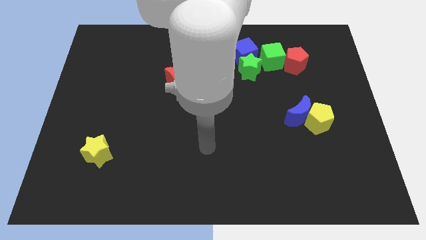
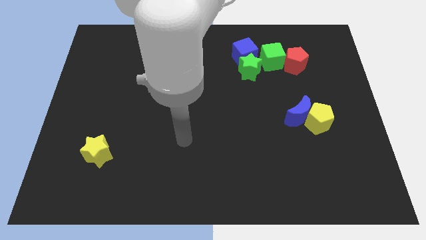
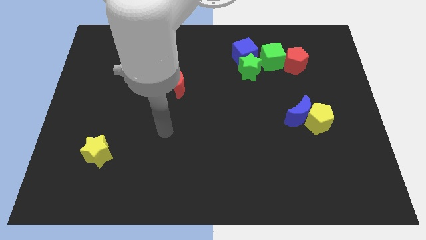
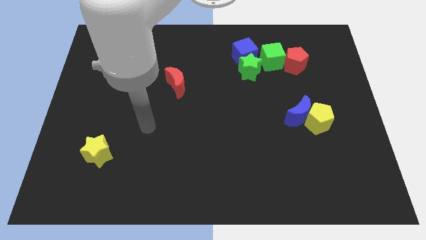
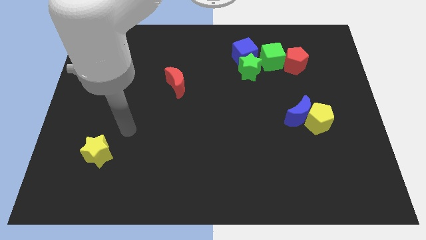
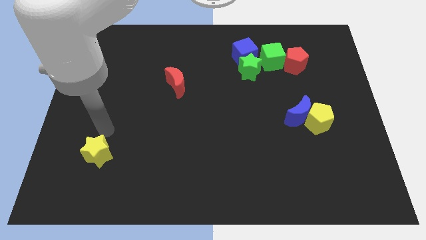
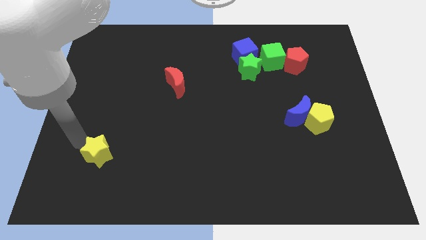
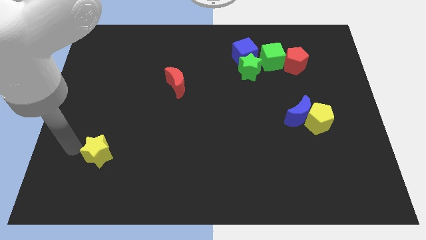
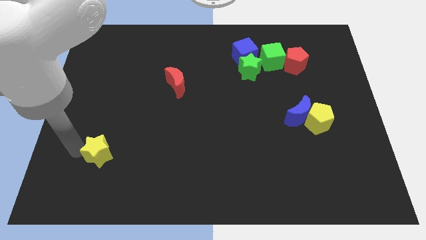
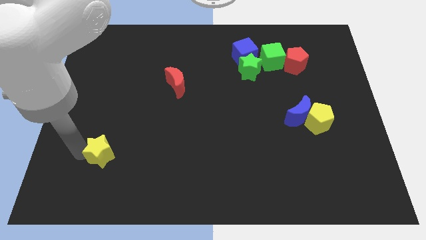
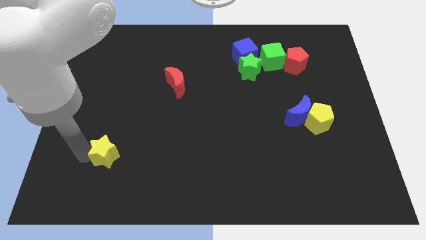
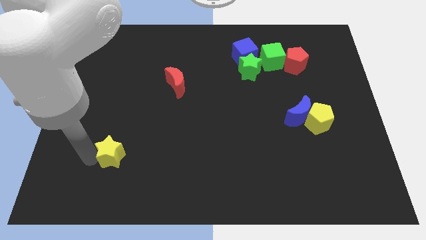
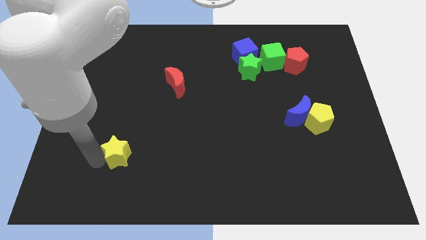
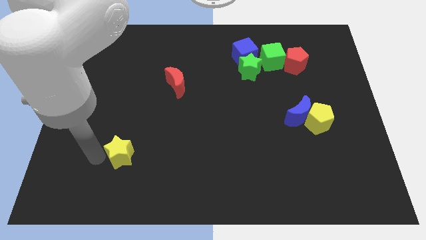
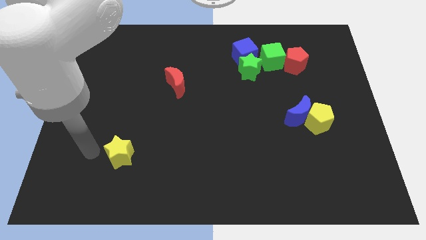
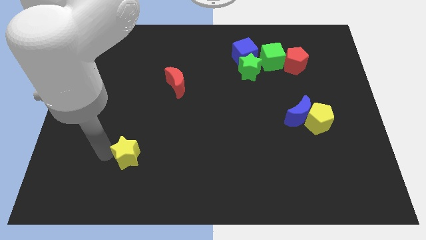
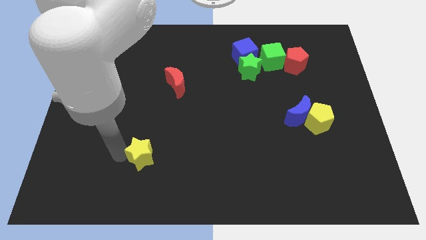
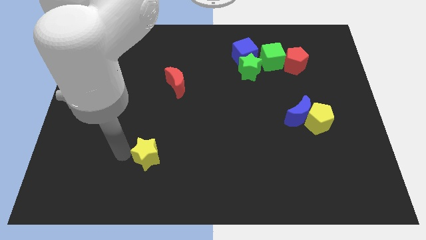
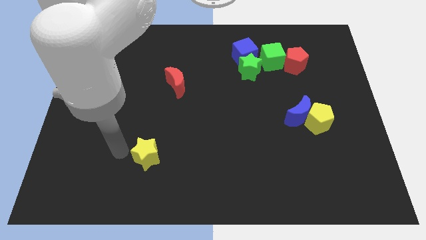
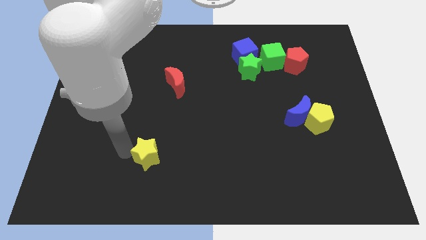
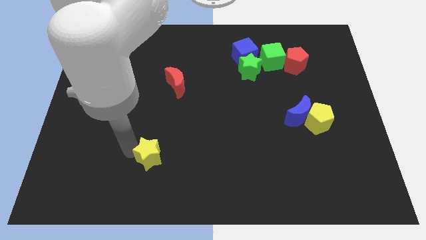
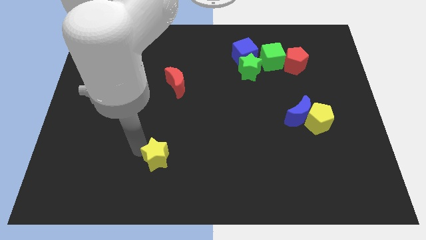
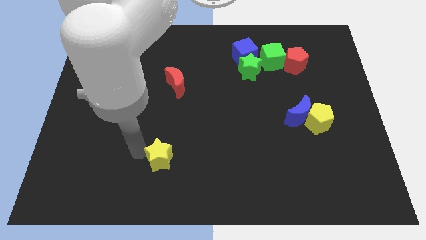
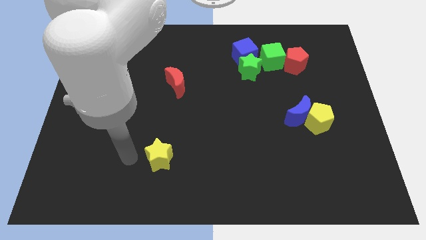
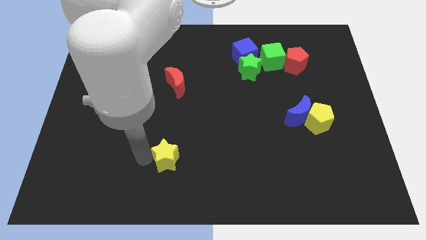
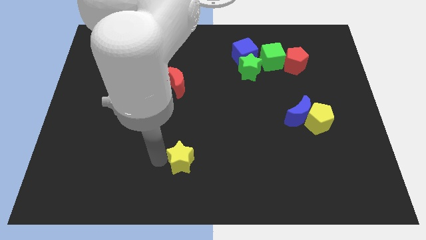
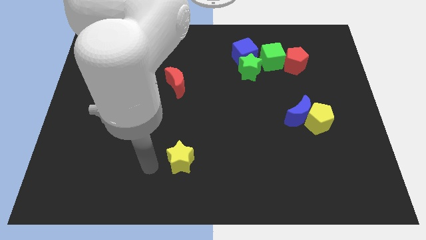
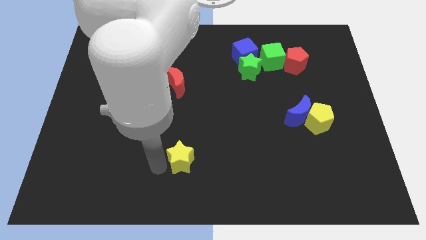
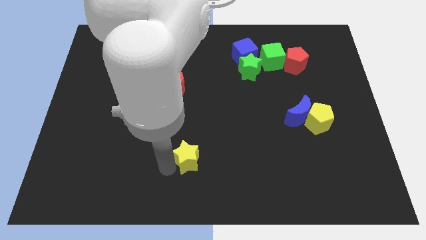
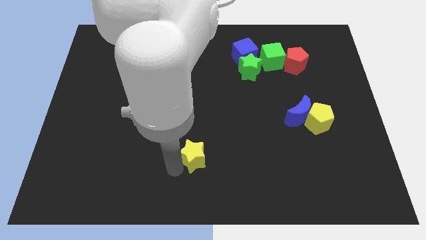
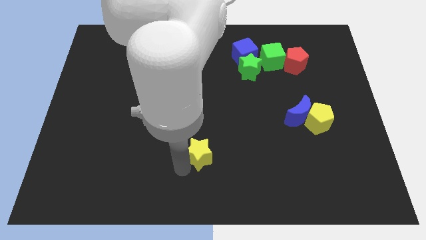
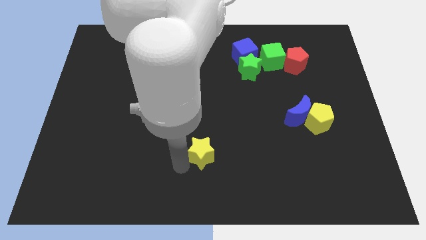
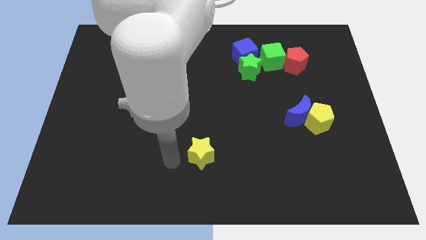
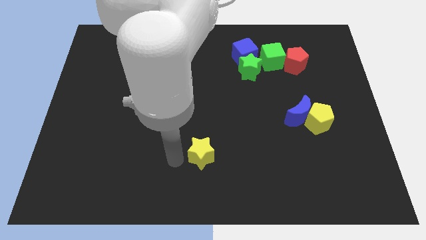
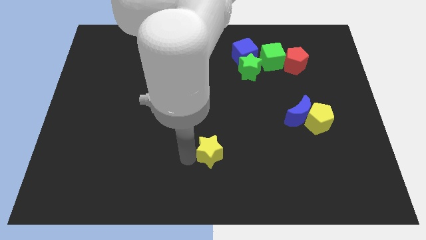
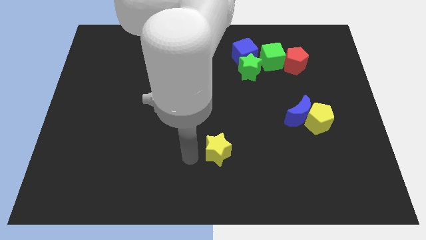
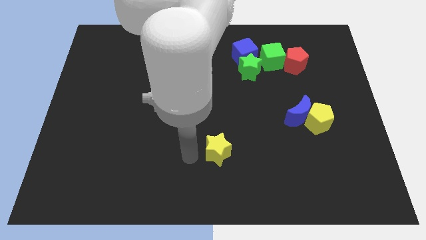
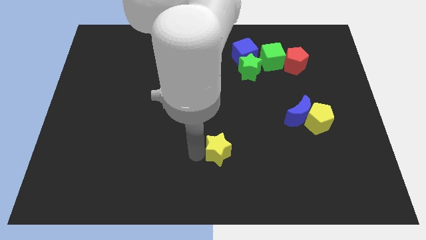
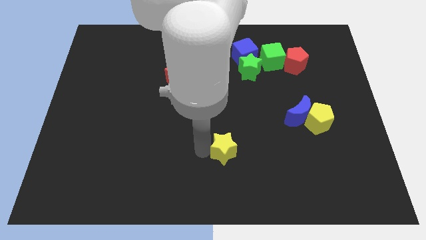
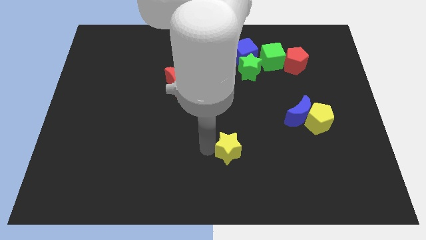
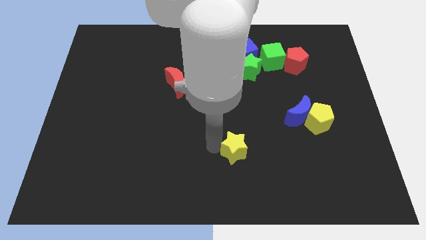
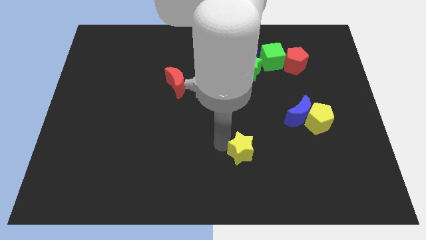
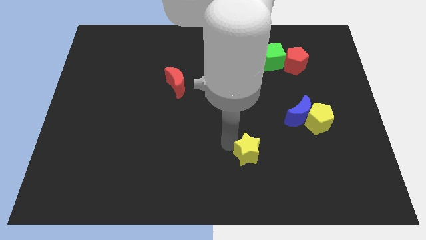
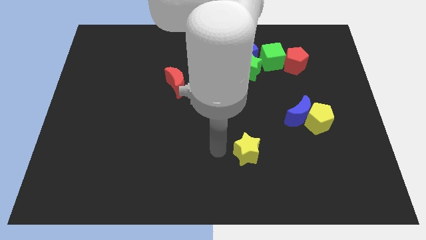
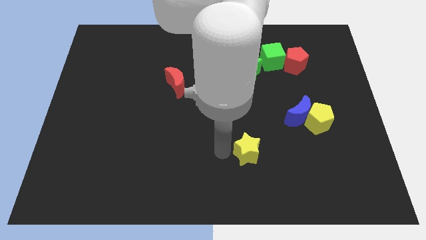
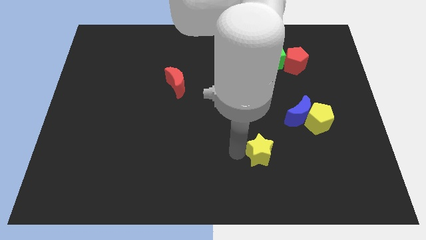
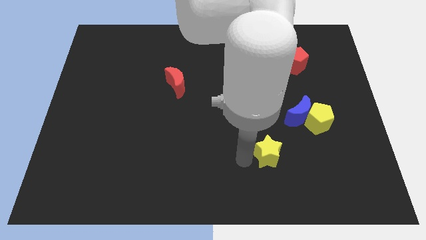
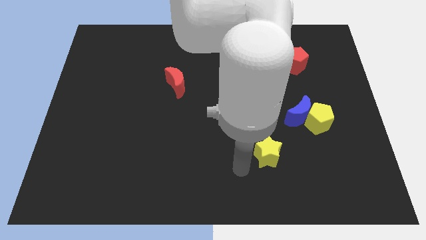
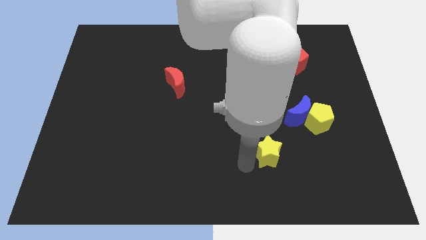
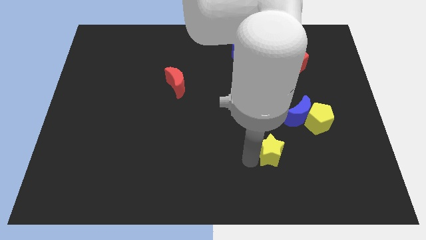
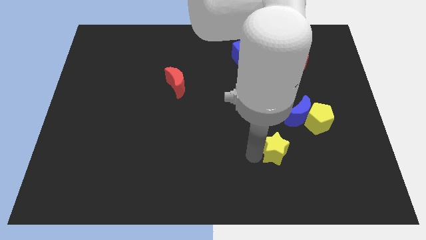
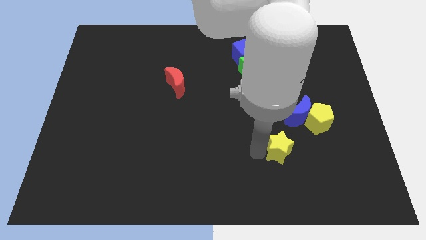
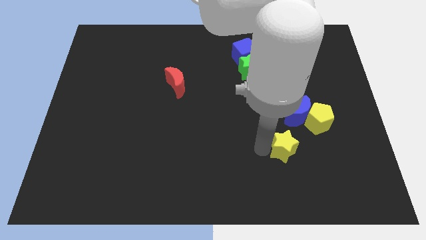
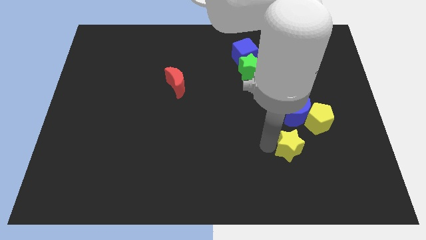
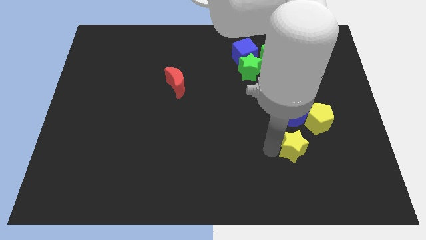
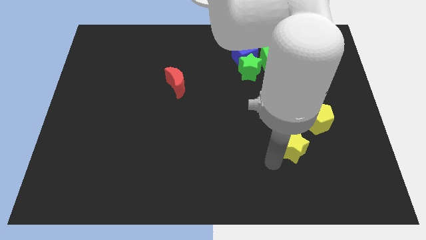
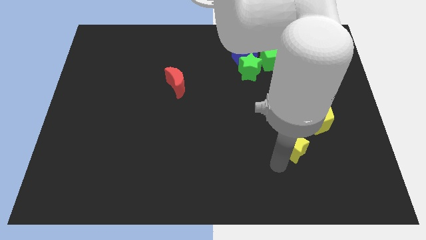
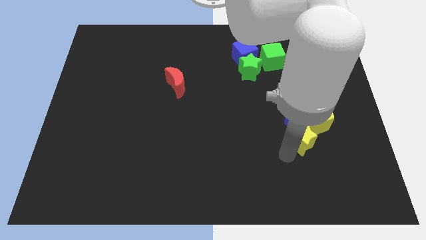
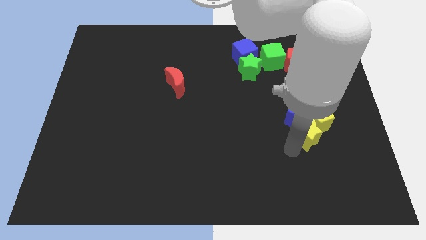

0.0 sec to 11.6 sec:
slide the yellow star next to the yellow pentagon

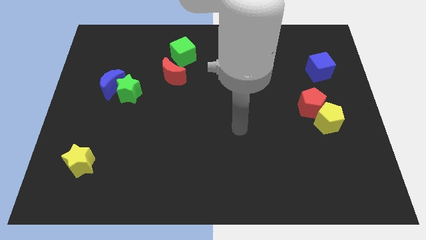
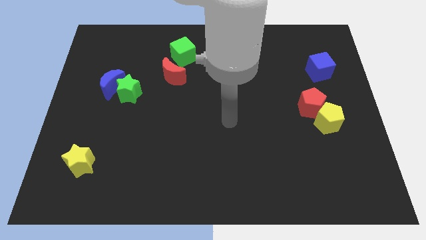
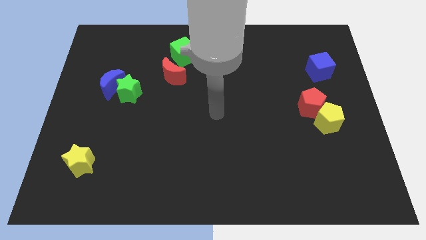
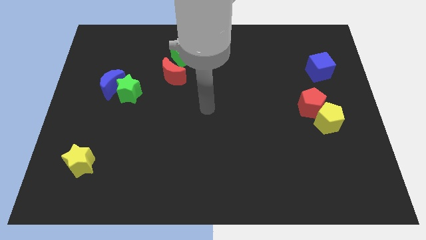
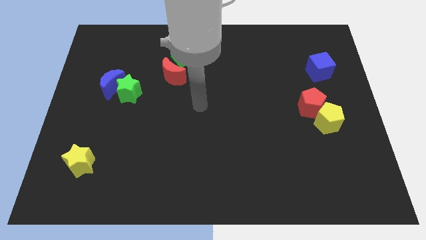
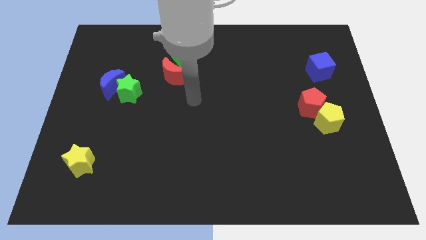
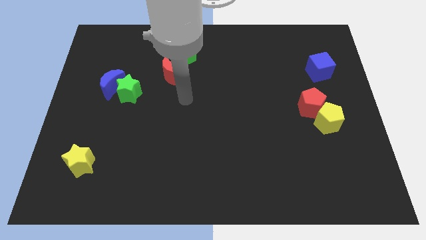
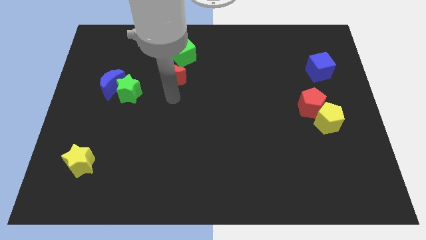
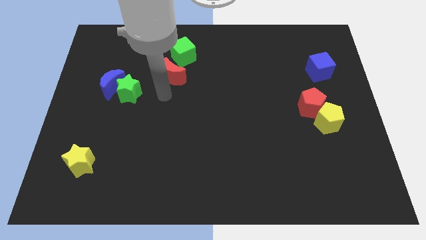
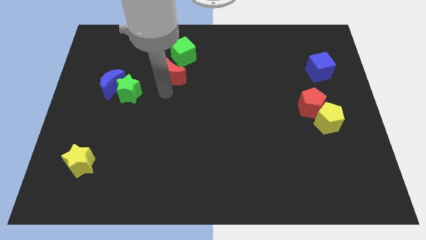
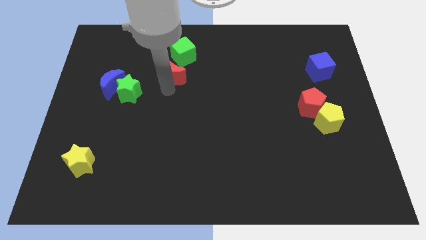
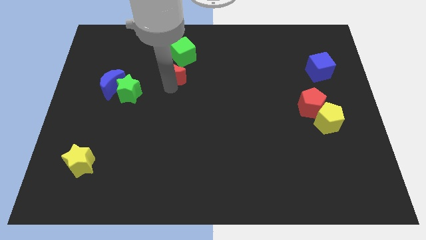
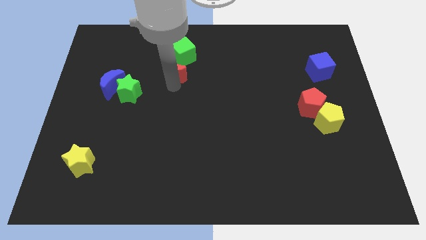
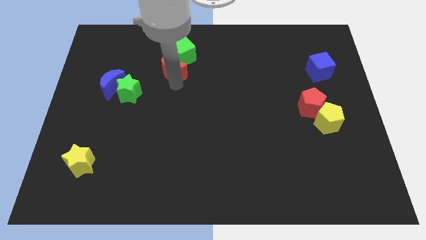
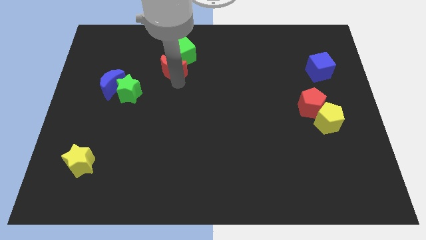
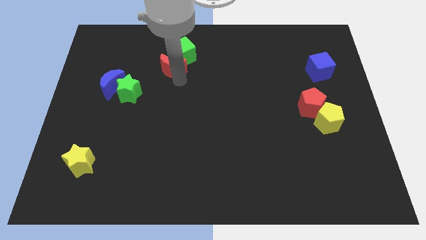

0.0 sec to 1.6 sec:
slide the red moon to the green cube

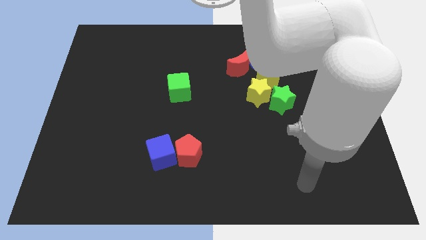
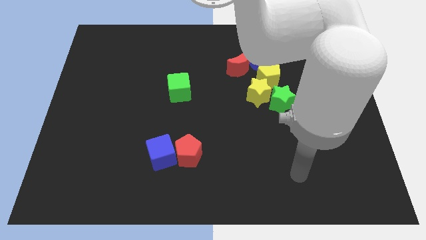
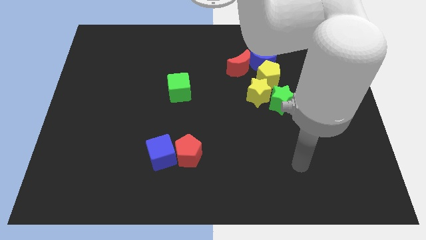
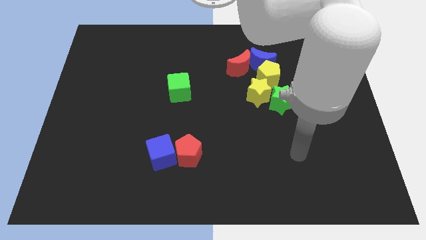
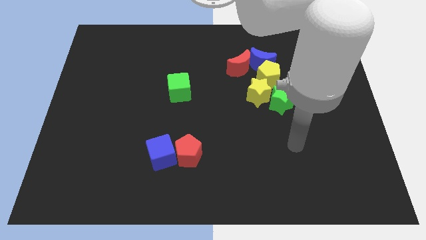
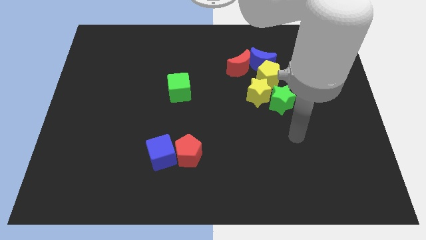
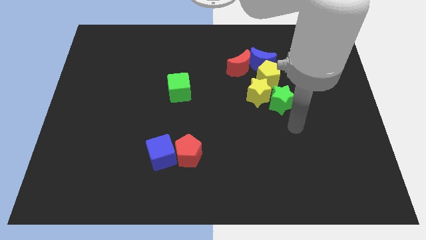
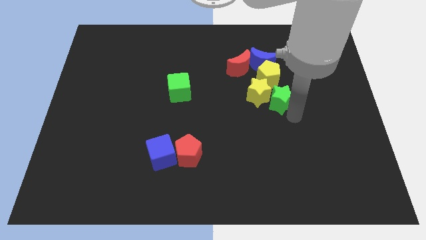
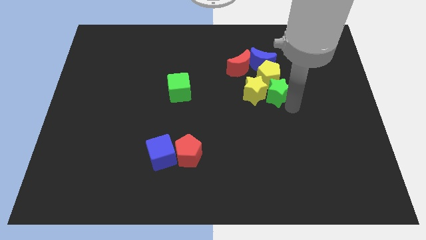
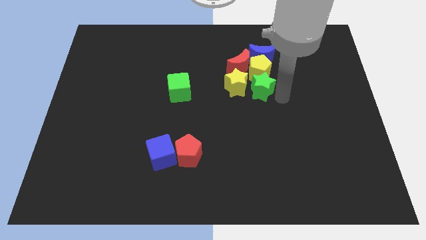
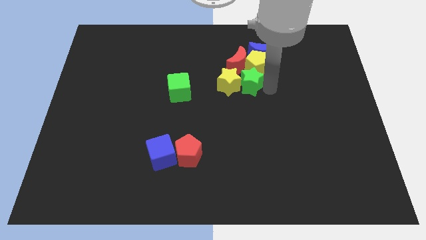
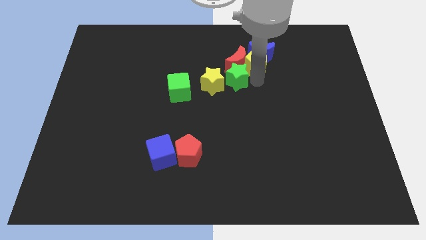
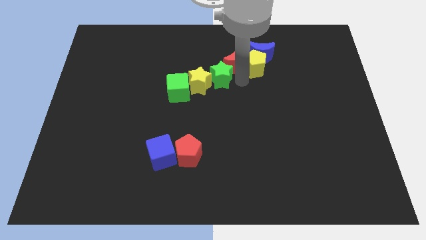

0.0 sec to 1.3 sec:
put the yellow star towards the green cube
